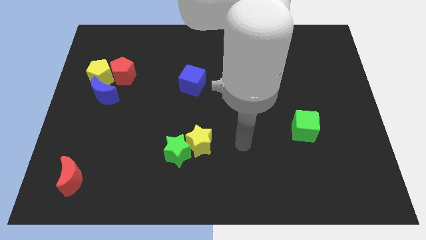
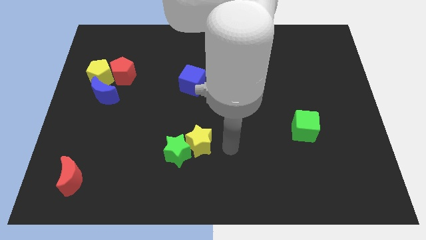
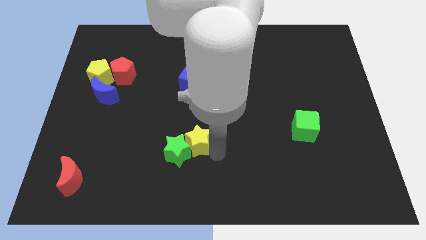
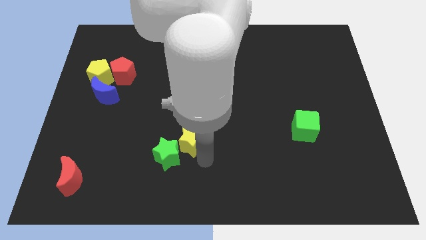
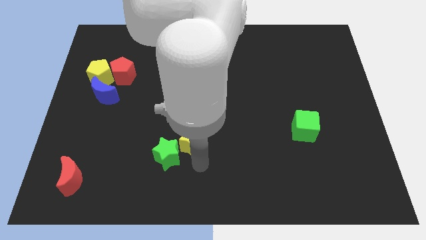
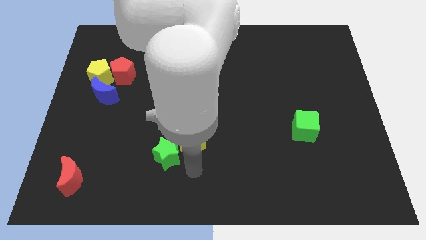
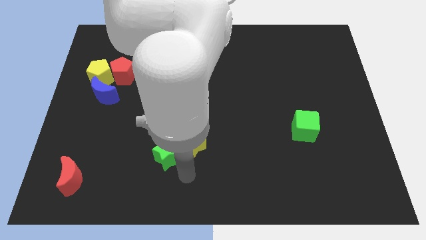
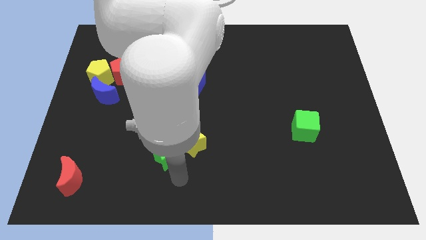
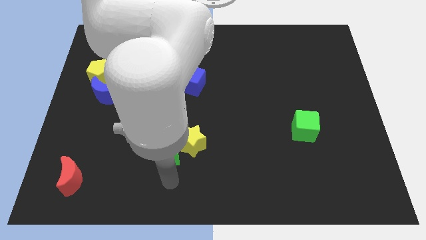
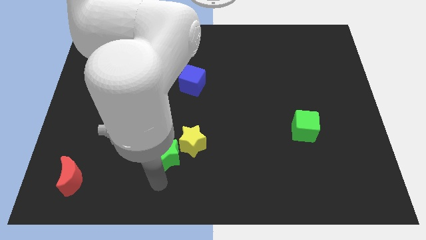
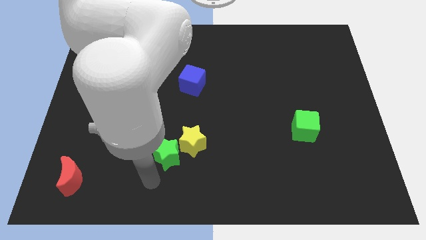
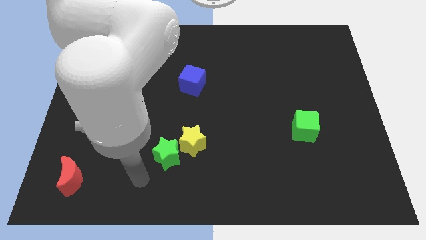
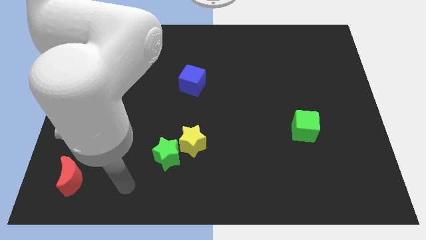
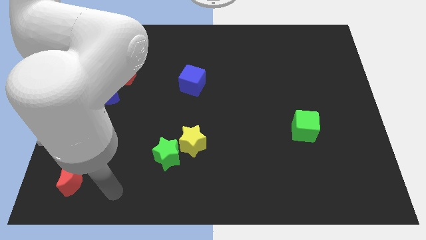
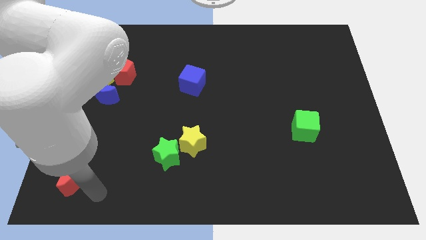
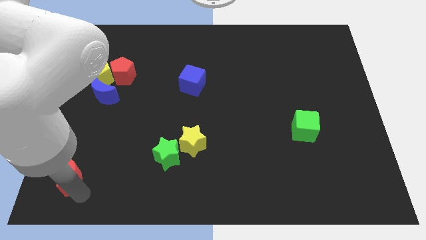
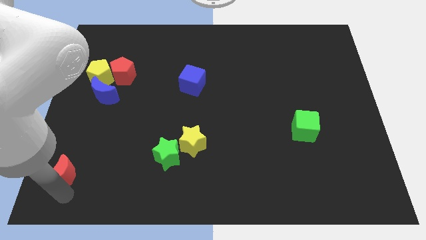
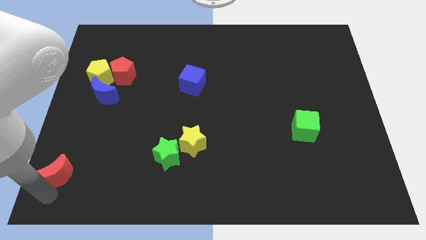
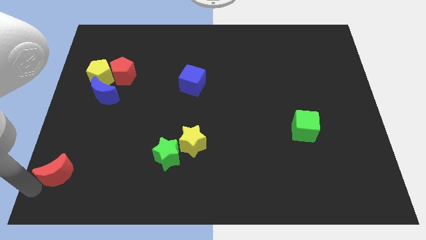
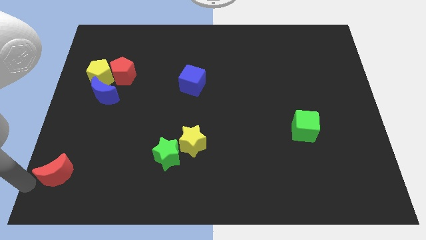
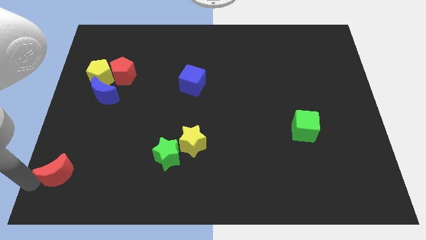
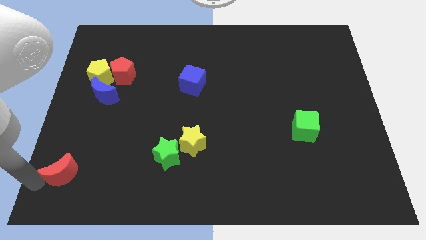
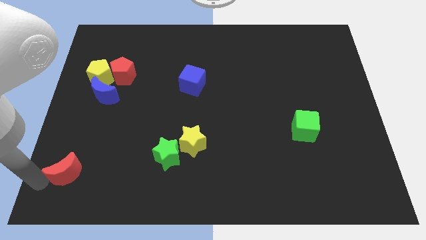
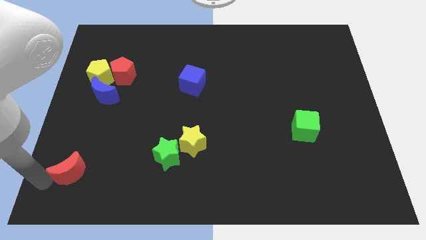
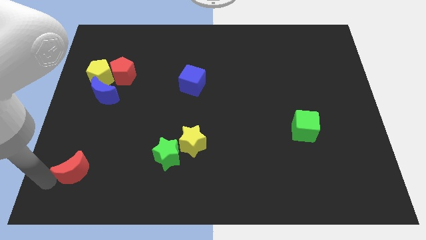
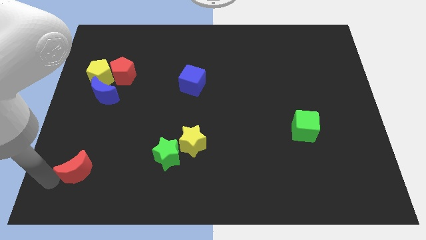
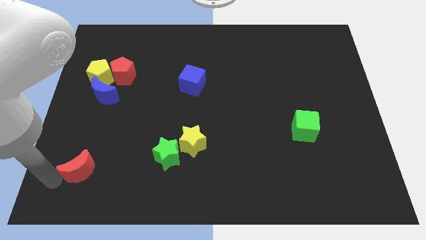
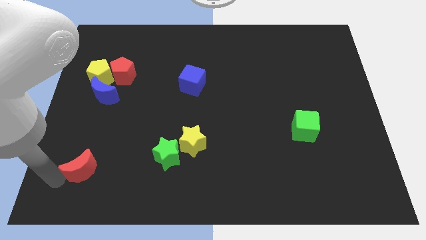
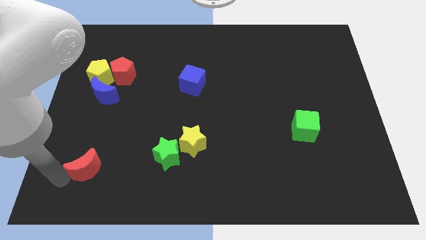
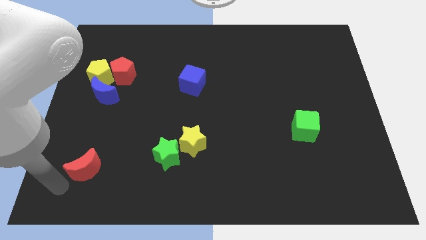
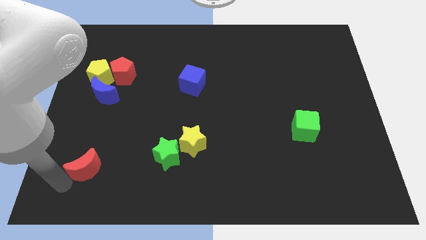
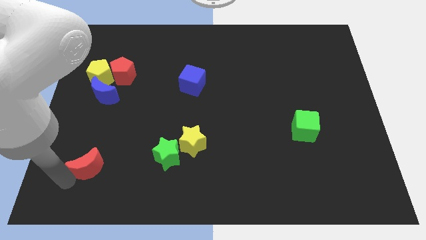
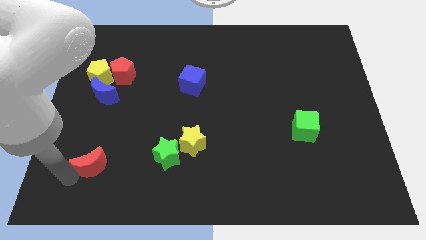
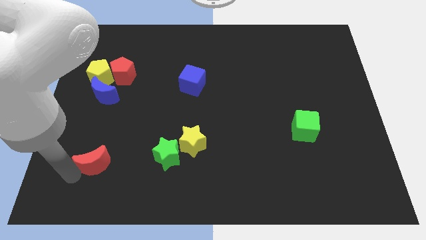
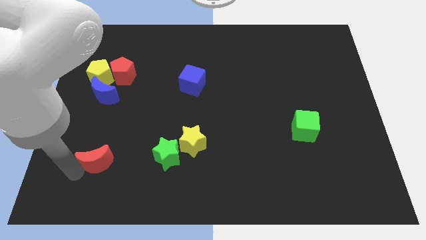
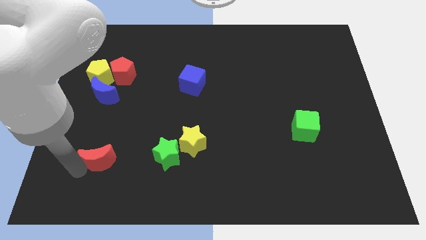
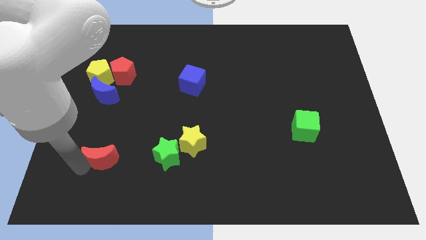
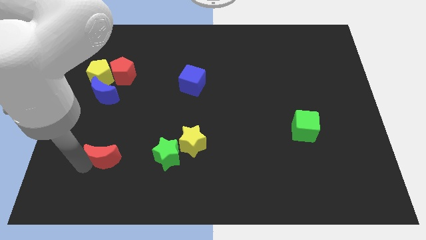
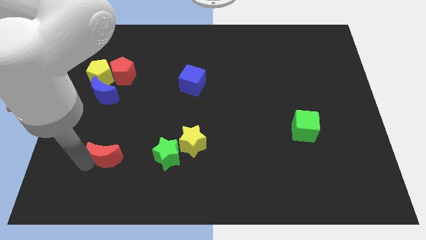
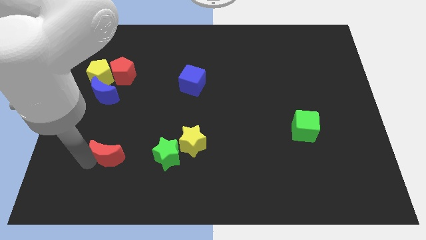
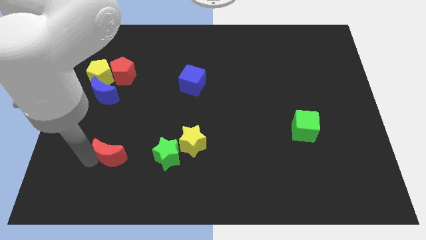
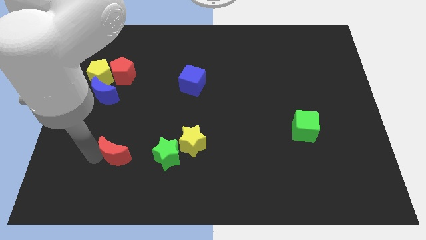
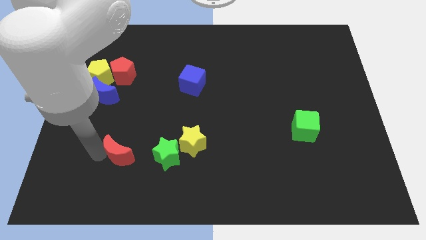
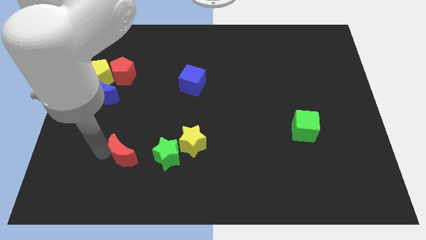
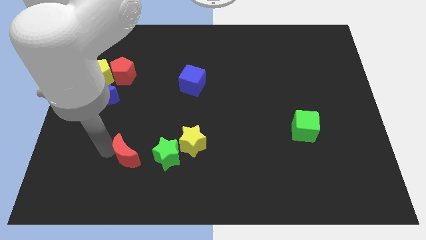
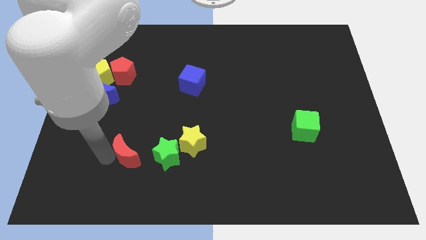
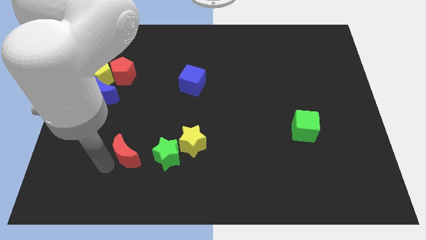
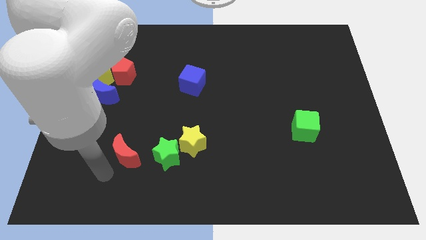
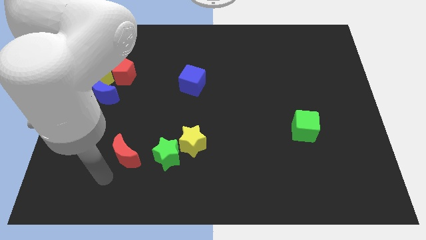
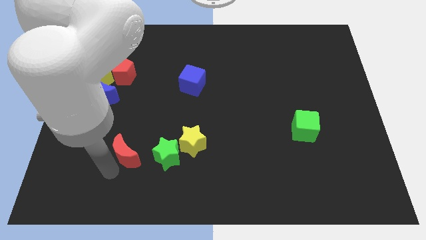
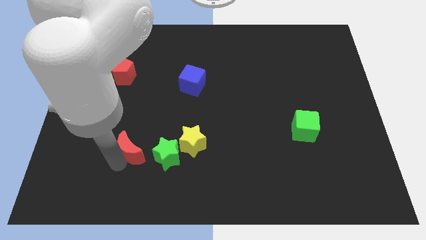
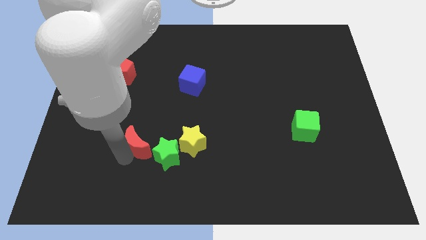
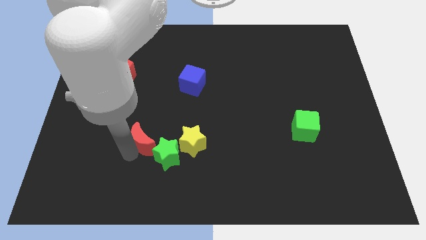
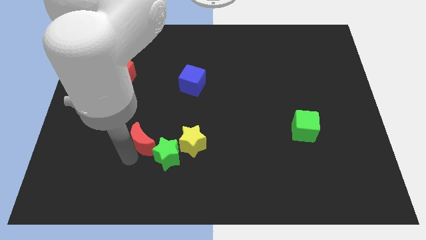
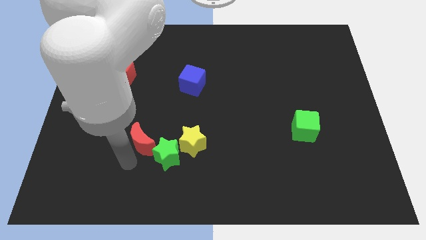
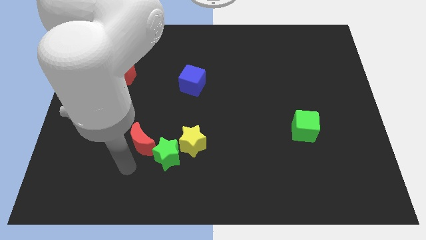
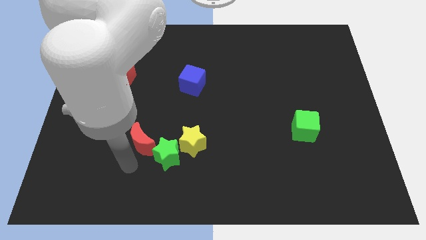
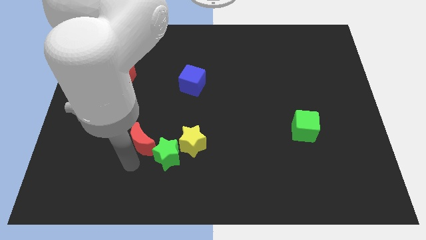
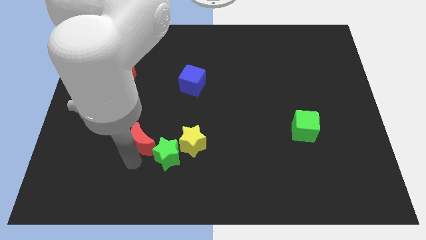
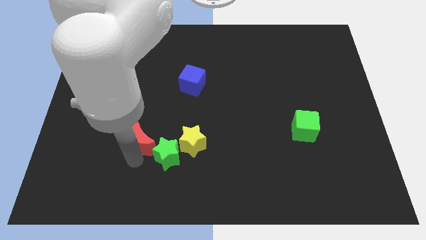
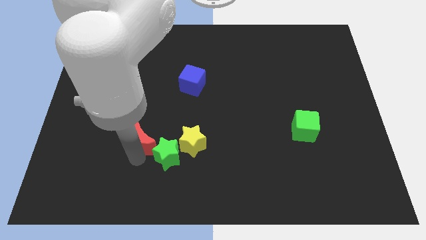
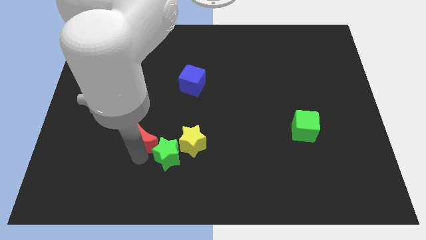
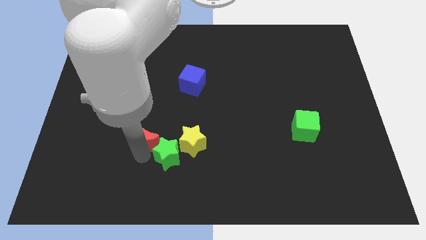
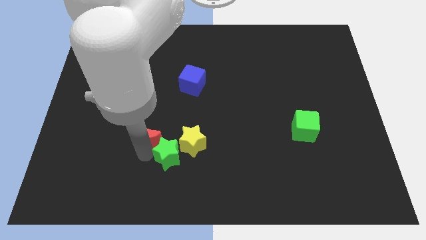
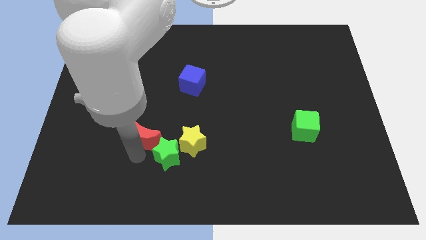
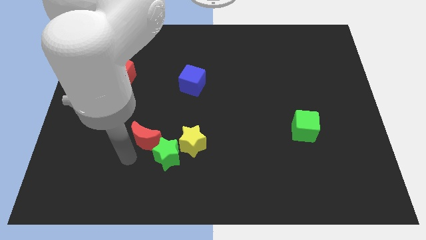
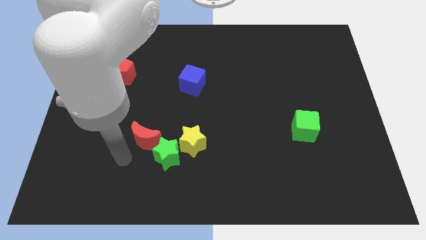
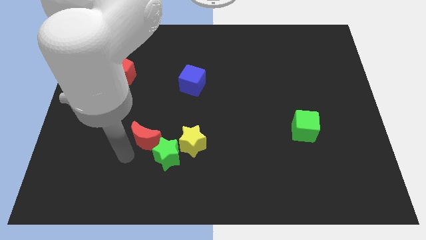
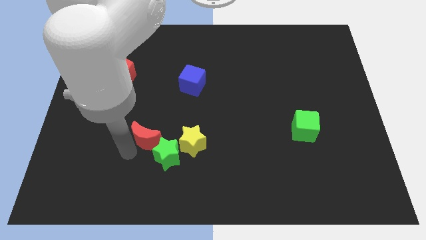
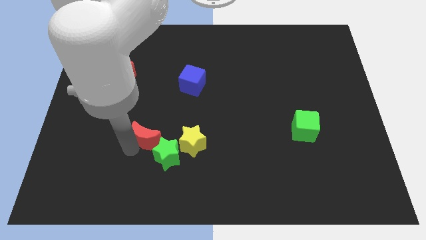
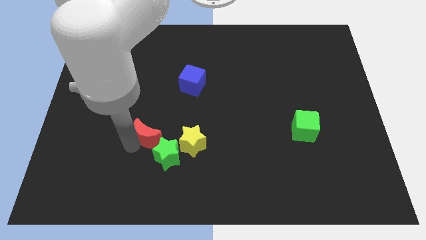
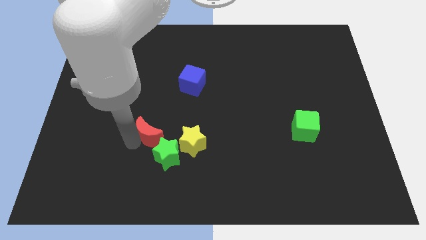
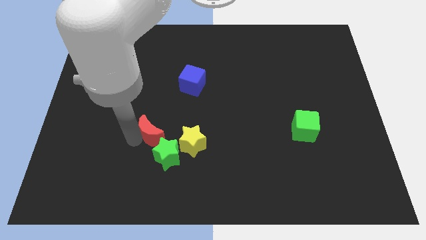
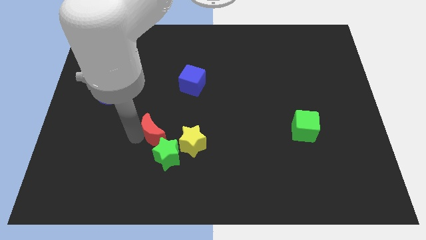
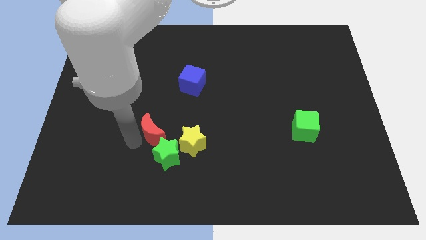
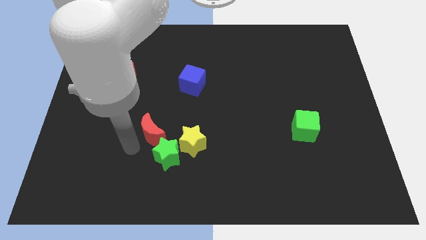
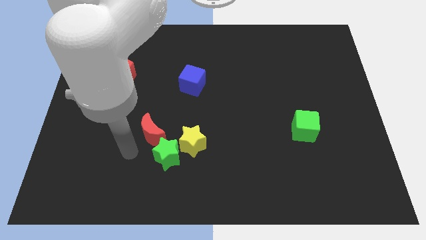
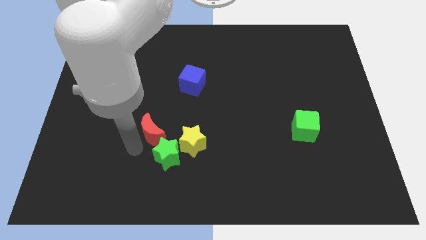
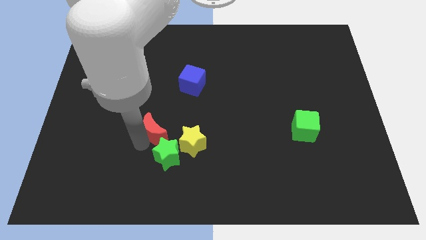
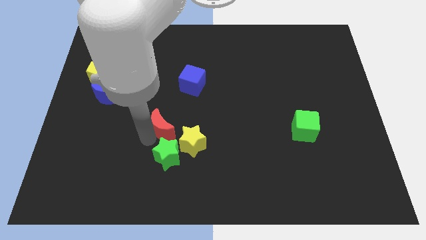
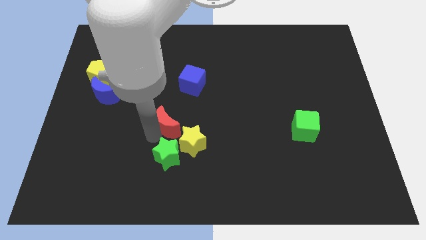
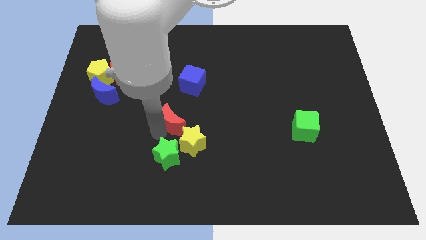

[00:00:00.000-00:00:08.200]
push the red moon to the middle
